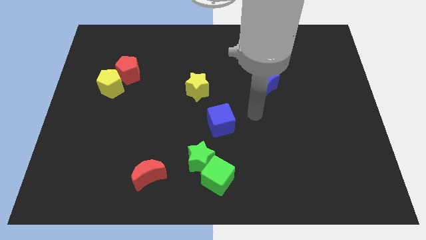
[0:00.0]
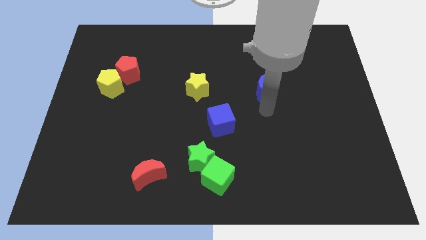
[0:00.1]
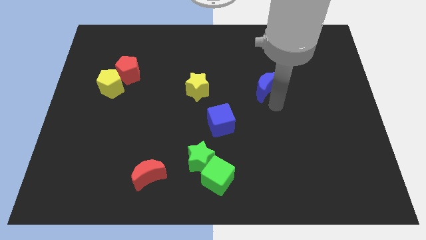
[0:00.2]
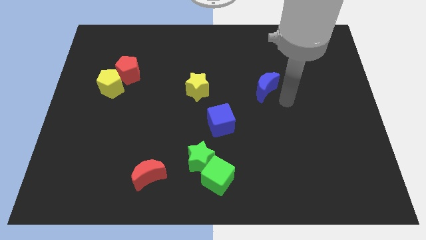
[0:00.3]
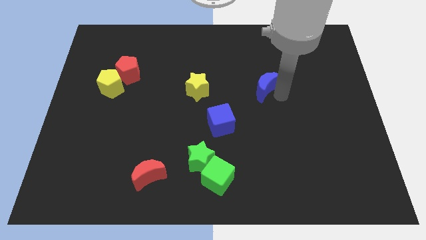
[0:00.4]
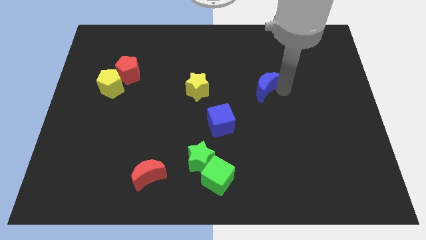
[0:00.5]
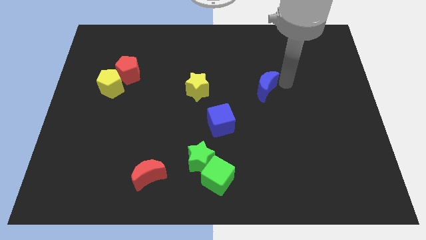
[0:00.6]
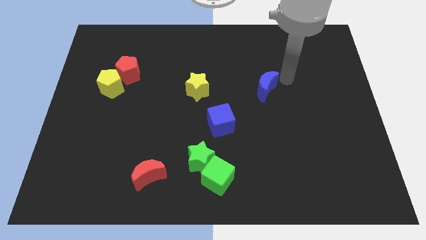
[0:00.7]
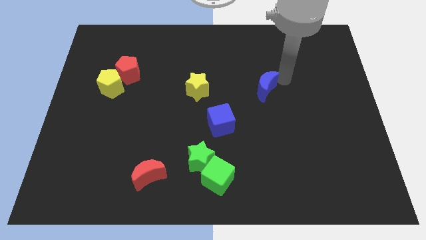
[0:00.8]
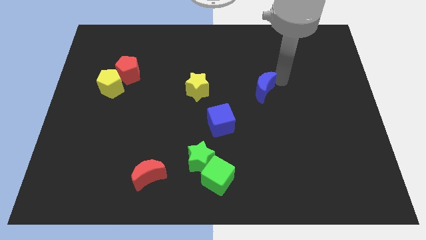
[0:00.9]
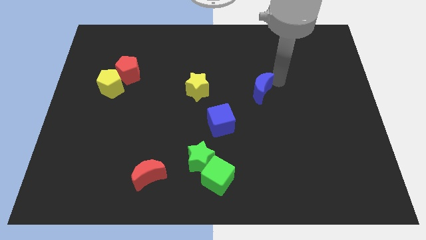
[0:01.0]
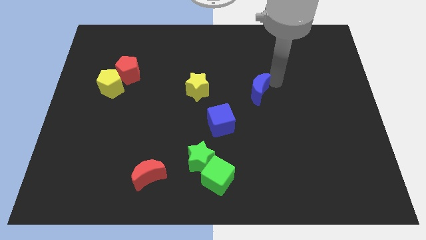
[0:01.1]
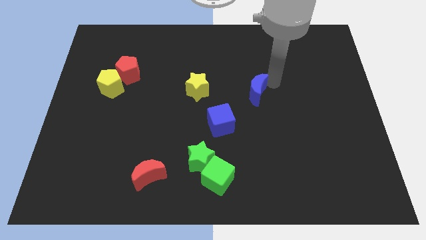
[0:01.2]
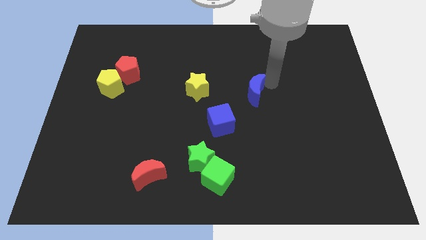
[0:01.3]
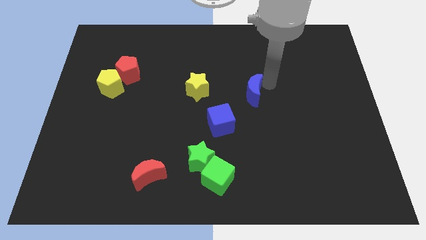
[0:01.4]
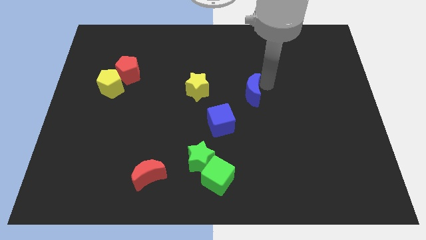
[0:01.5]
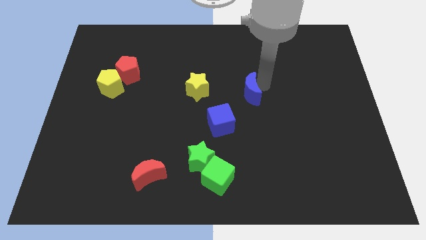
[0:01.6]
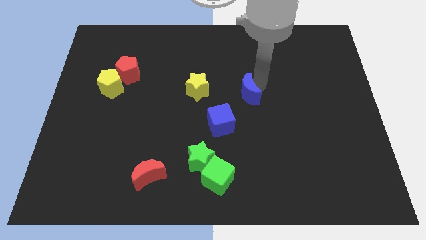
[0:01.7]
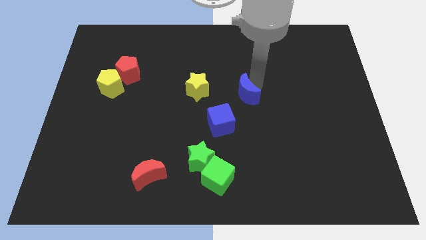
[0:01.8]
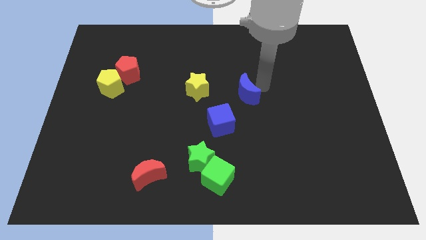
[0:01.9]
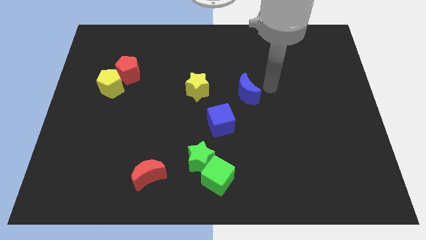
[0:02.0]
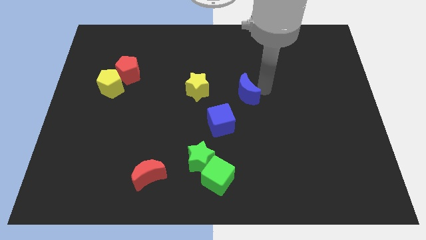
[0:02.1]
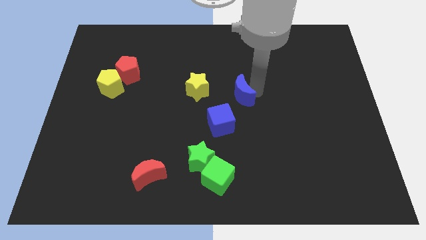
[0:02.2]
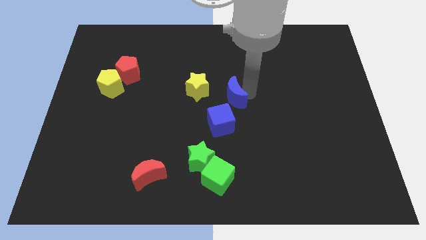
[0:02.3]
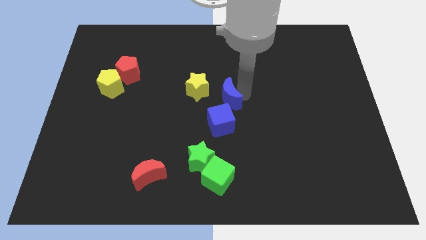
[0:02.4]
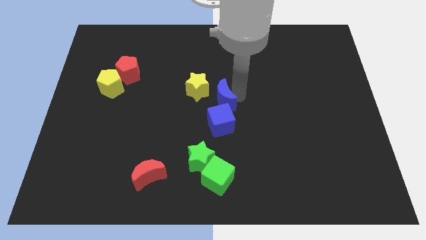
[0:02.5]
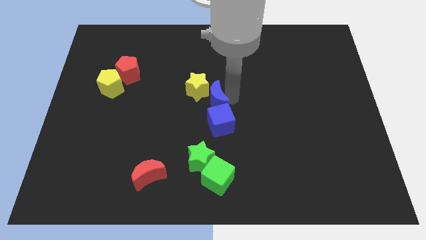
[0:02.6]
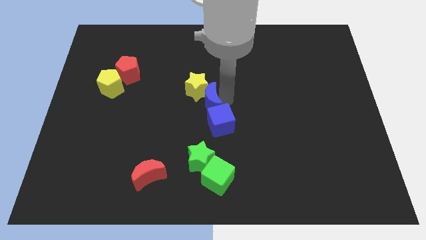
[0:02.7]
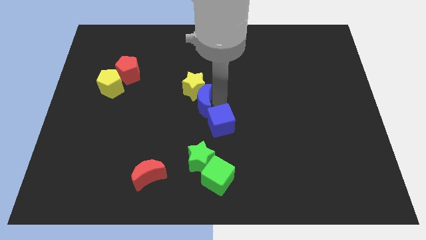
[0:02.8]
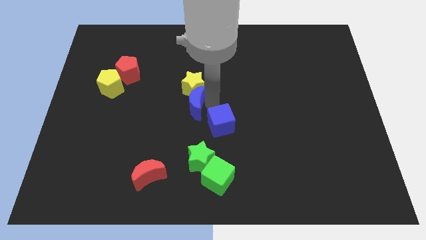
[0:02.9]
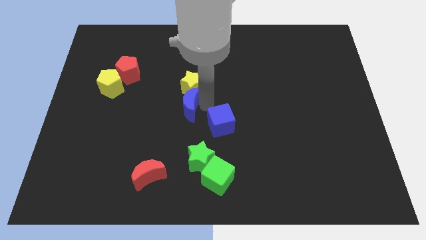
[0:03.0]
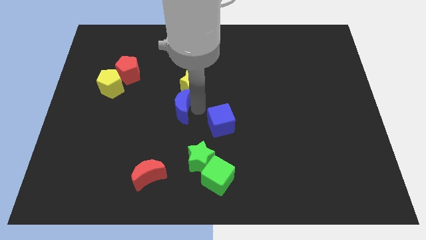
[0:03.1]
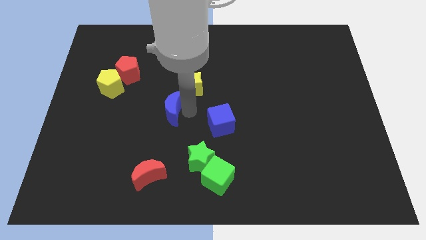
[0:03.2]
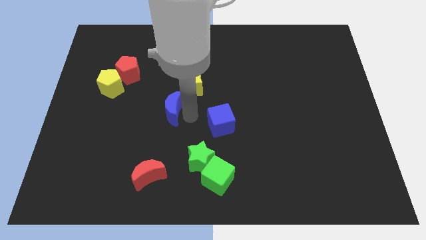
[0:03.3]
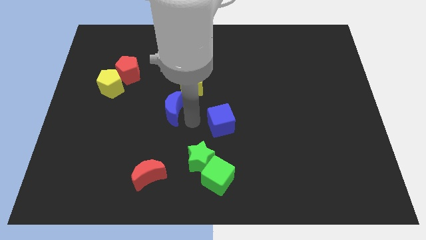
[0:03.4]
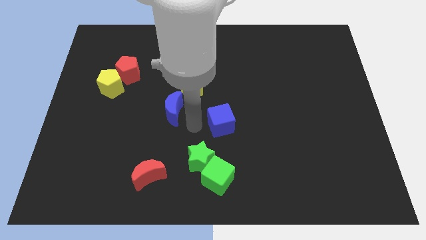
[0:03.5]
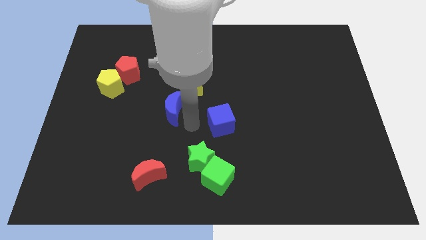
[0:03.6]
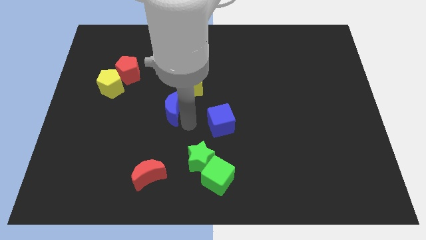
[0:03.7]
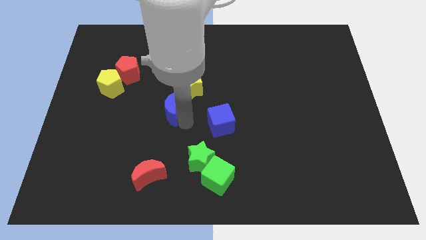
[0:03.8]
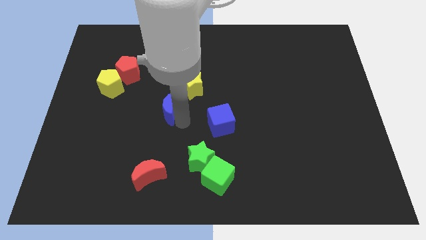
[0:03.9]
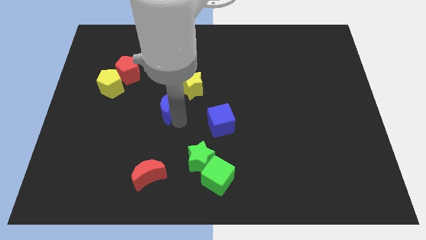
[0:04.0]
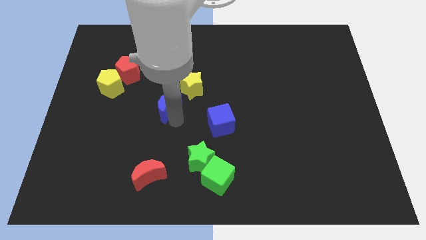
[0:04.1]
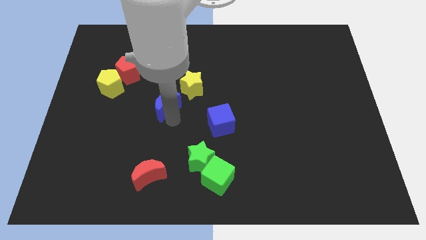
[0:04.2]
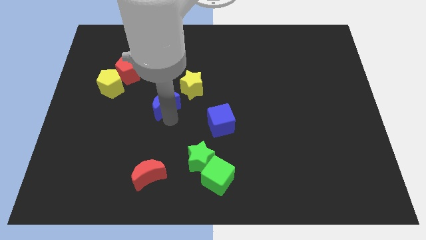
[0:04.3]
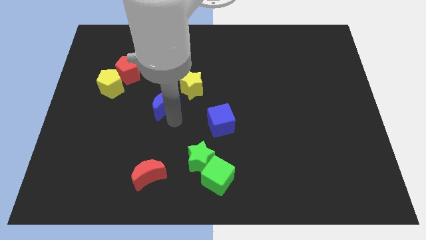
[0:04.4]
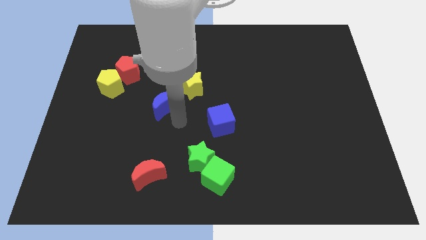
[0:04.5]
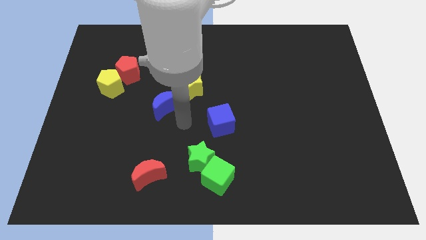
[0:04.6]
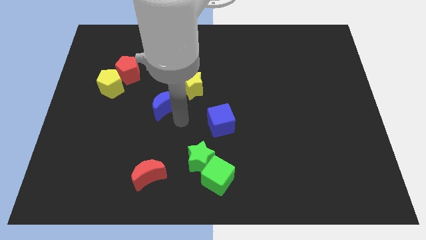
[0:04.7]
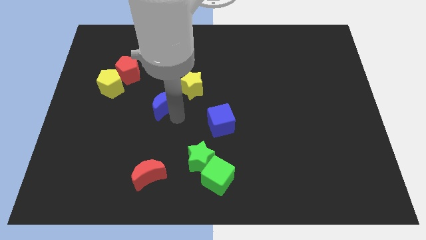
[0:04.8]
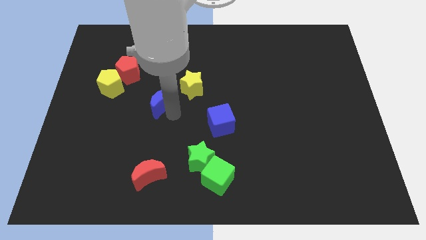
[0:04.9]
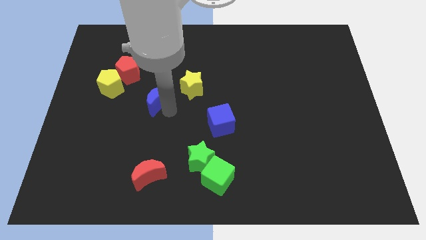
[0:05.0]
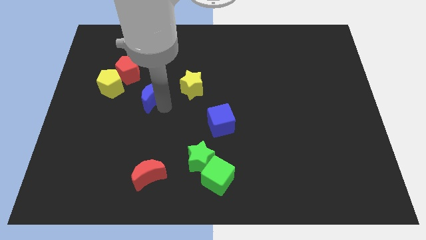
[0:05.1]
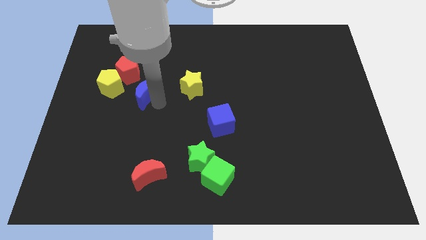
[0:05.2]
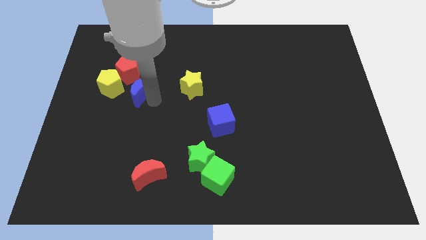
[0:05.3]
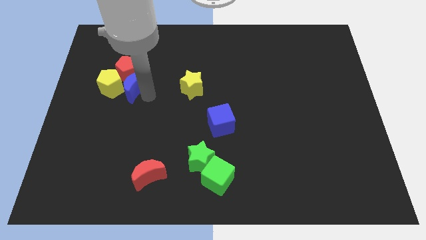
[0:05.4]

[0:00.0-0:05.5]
push the blue moon next to the yellow pentagon

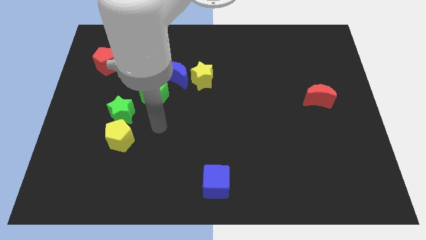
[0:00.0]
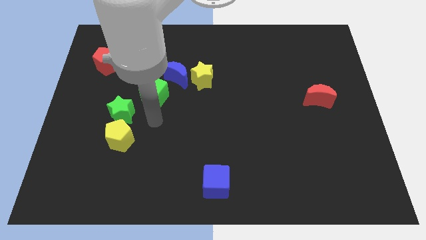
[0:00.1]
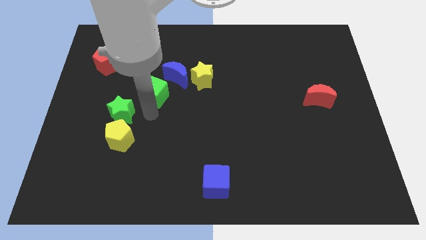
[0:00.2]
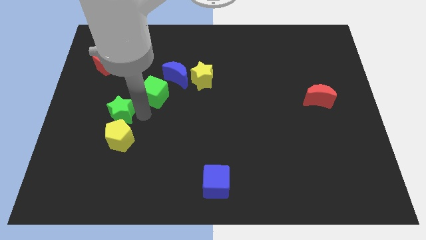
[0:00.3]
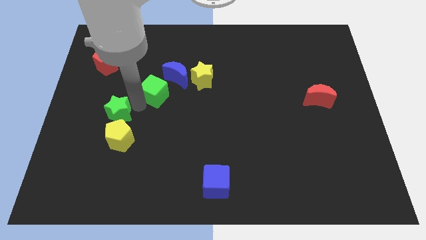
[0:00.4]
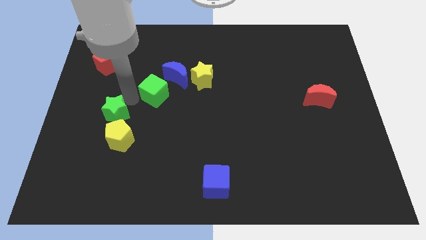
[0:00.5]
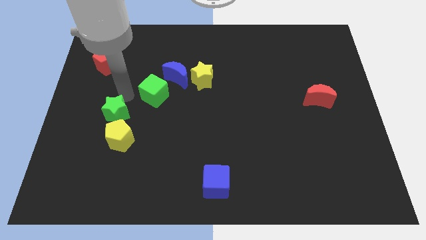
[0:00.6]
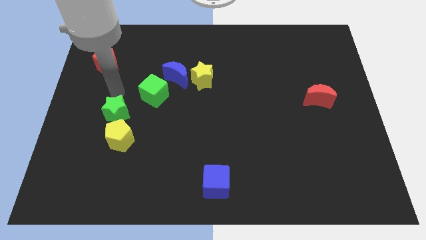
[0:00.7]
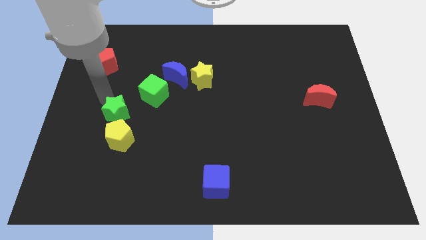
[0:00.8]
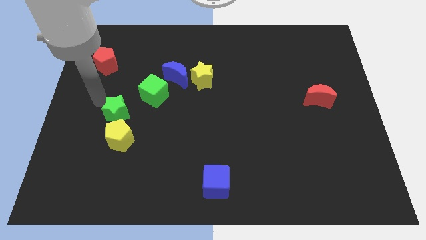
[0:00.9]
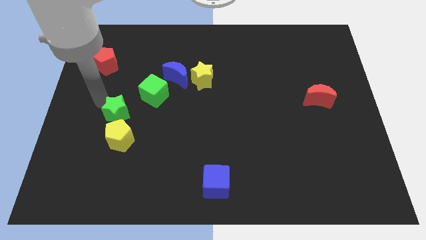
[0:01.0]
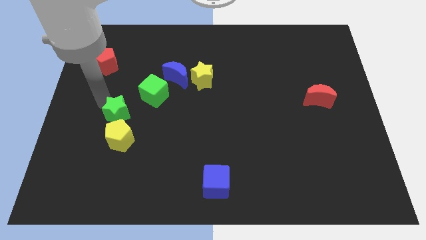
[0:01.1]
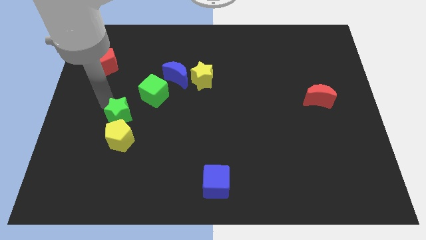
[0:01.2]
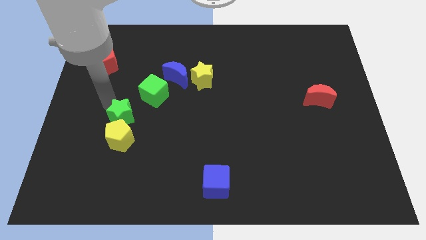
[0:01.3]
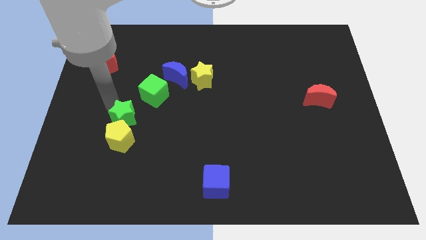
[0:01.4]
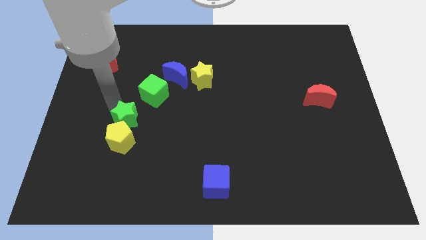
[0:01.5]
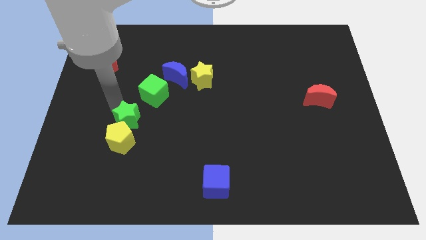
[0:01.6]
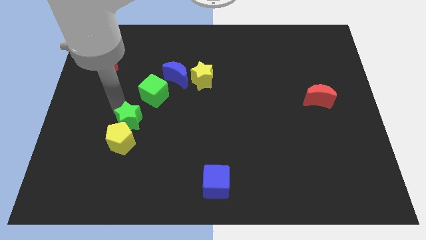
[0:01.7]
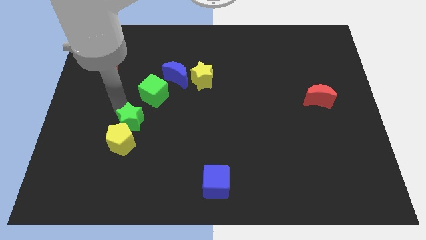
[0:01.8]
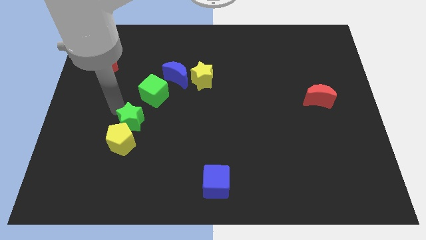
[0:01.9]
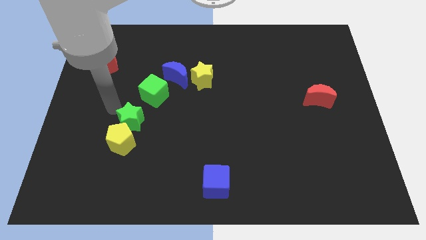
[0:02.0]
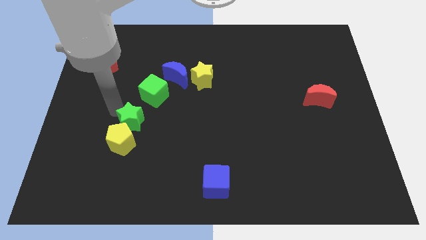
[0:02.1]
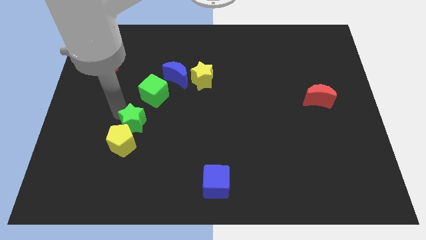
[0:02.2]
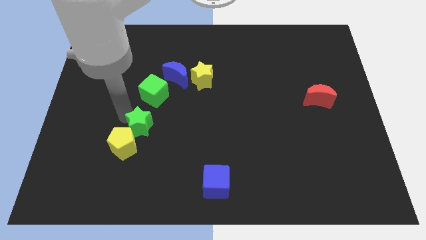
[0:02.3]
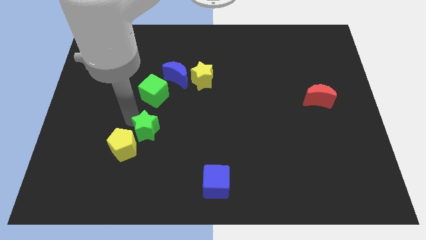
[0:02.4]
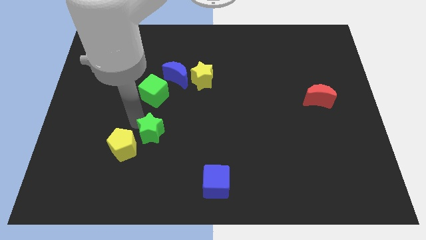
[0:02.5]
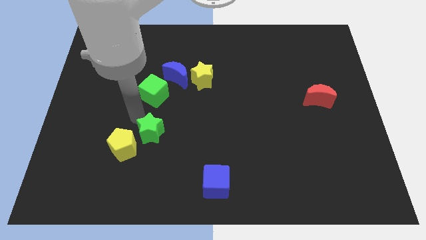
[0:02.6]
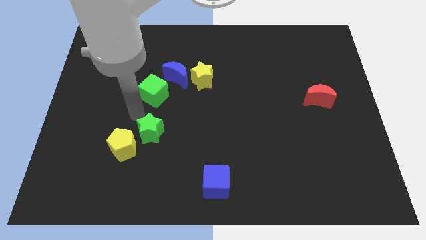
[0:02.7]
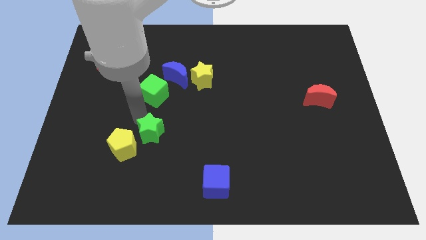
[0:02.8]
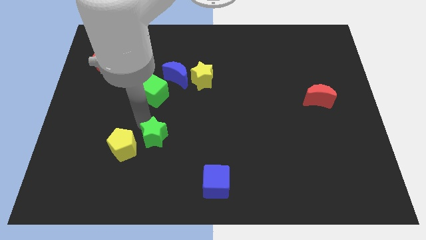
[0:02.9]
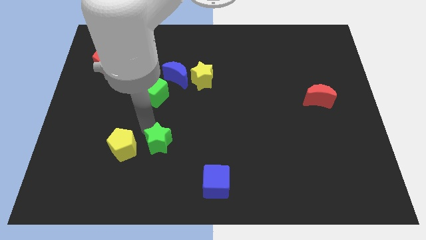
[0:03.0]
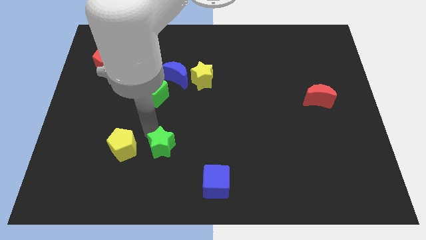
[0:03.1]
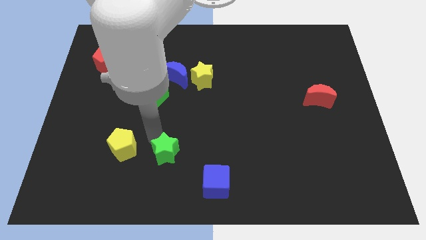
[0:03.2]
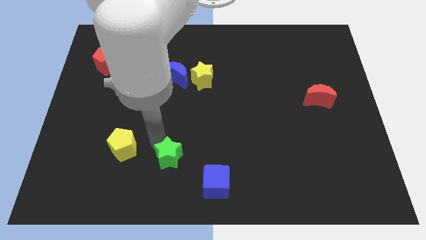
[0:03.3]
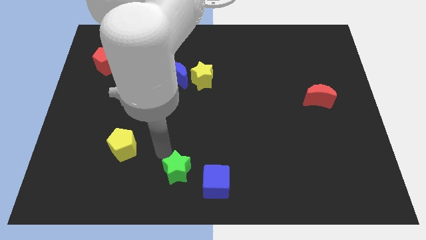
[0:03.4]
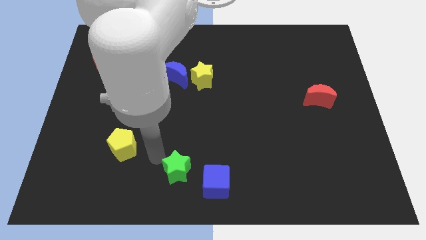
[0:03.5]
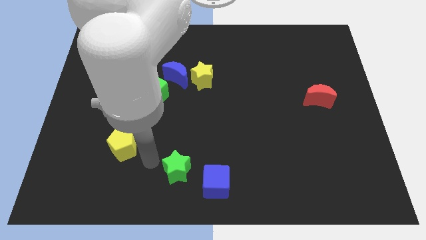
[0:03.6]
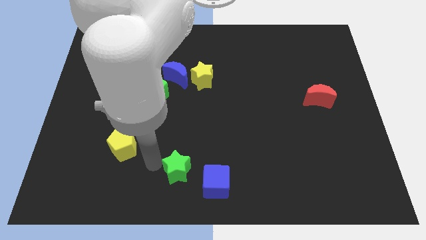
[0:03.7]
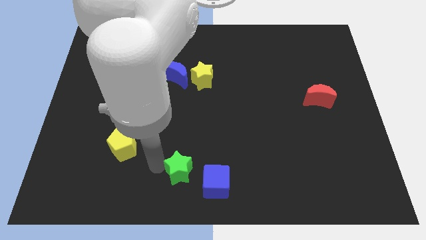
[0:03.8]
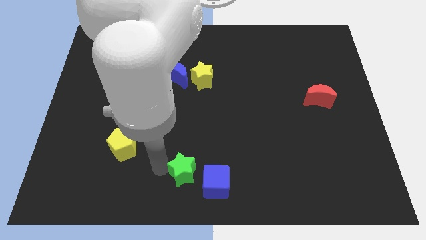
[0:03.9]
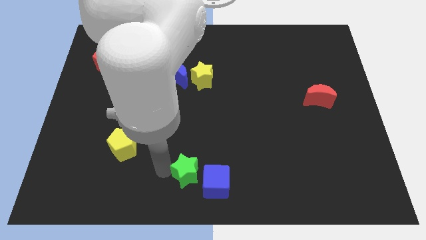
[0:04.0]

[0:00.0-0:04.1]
slide the green star close to the blue cube
